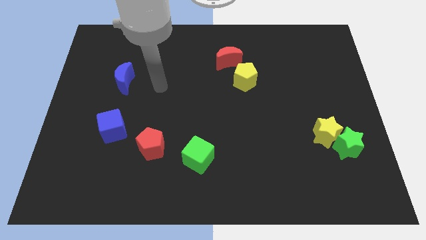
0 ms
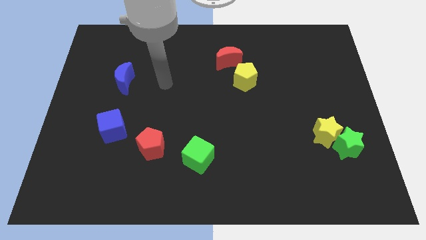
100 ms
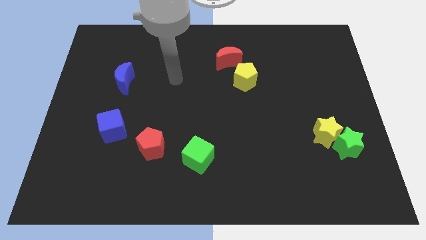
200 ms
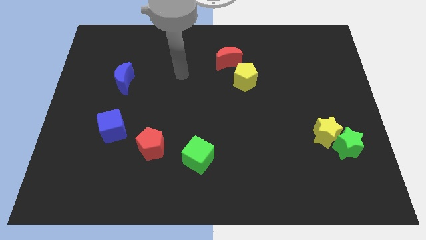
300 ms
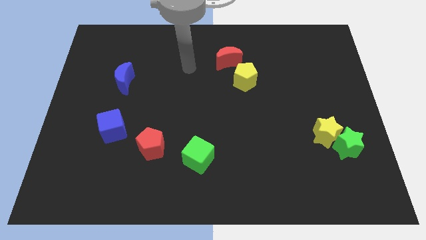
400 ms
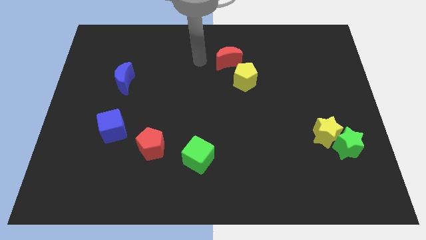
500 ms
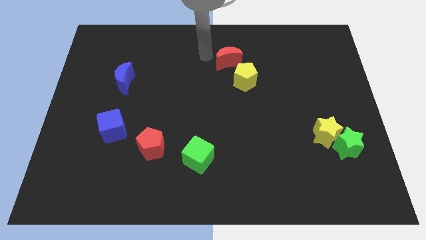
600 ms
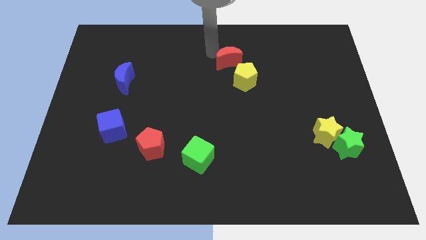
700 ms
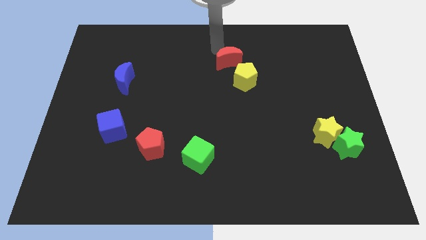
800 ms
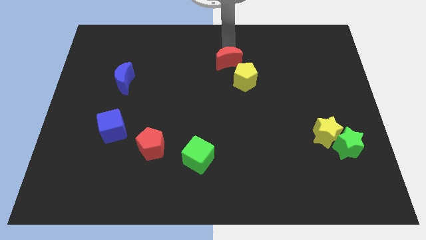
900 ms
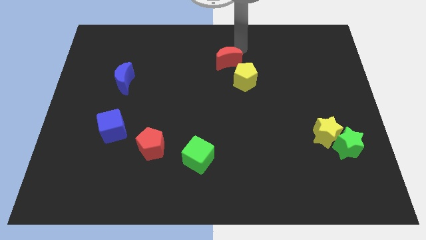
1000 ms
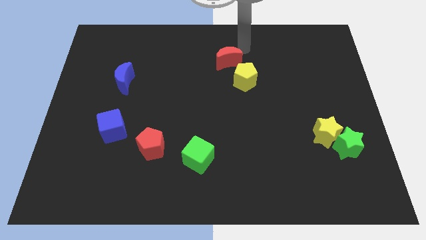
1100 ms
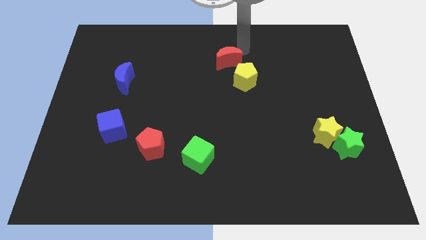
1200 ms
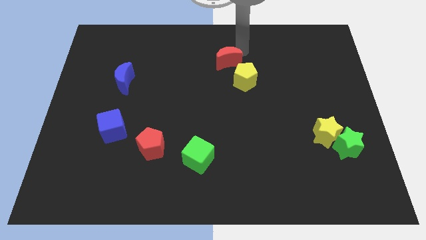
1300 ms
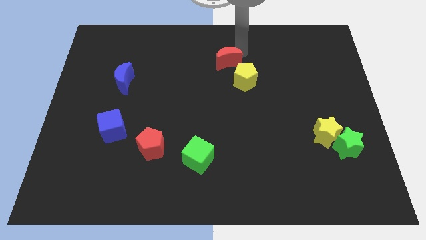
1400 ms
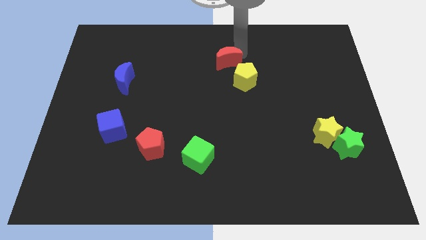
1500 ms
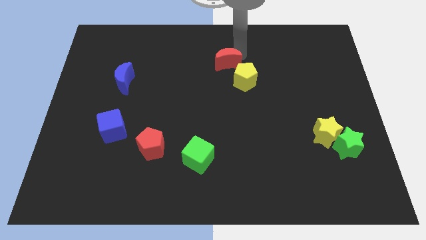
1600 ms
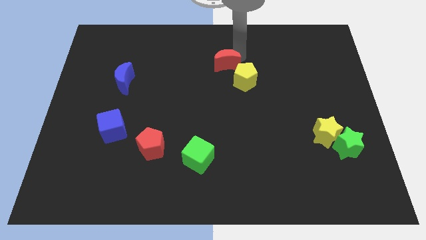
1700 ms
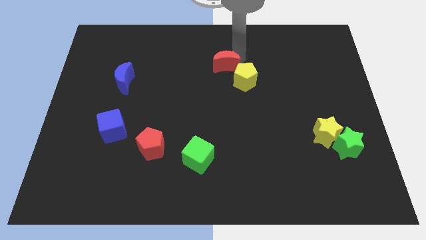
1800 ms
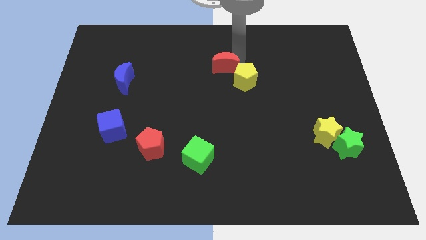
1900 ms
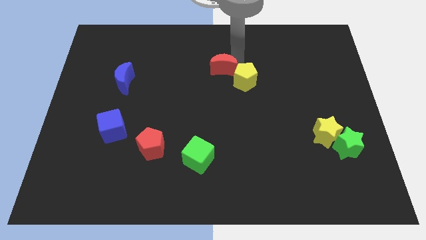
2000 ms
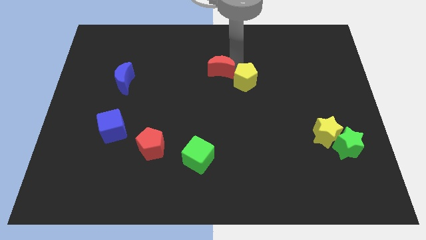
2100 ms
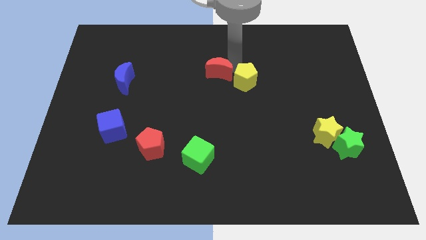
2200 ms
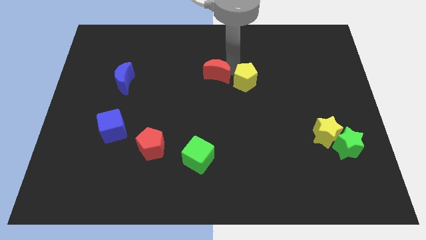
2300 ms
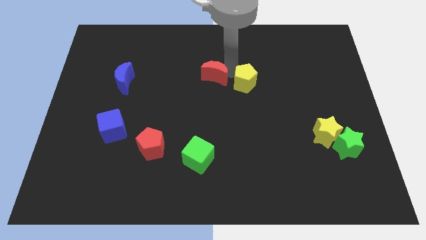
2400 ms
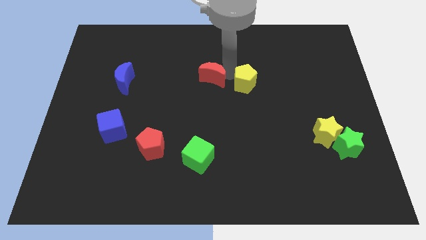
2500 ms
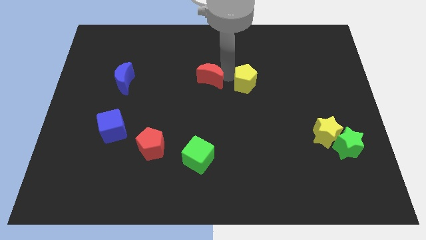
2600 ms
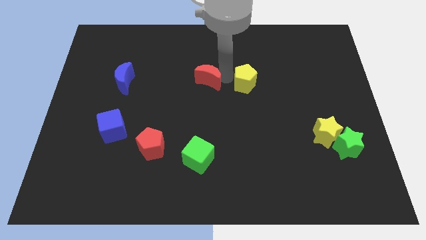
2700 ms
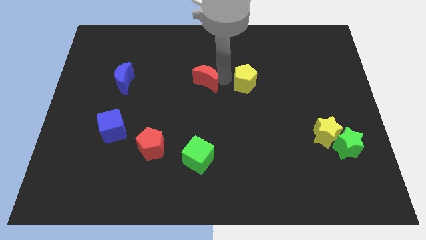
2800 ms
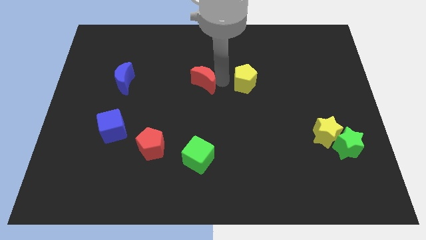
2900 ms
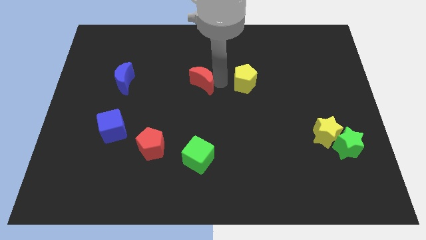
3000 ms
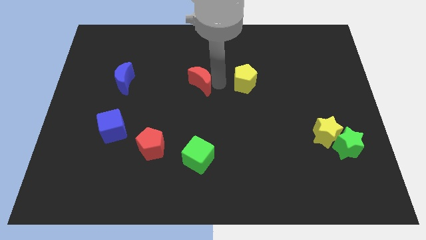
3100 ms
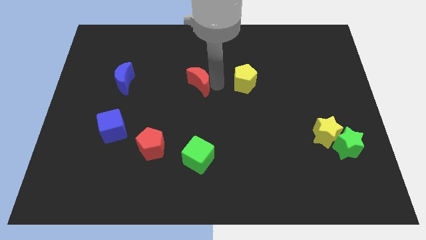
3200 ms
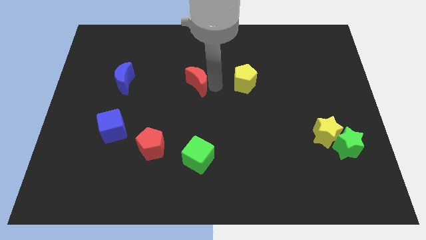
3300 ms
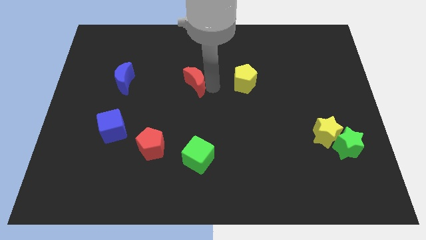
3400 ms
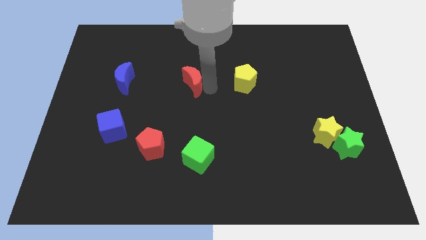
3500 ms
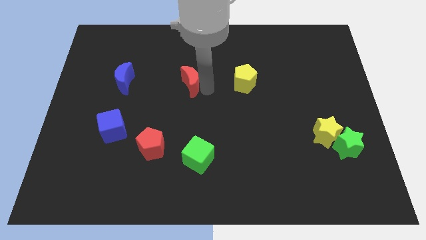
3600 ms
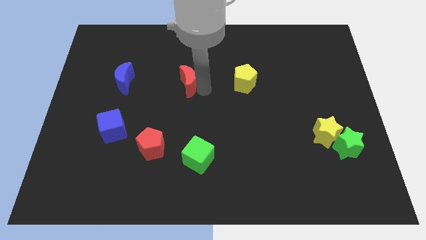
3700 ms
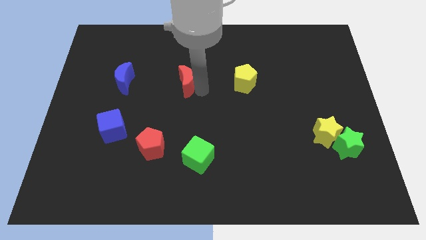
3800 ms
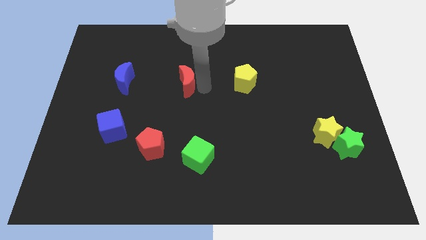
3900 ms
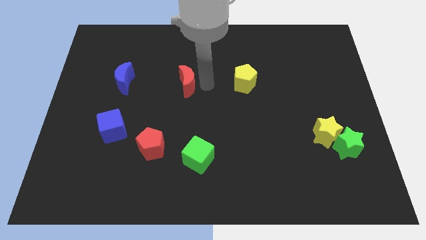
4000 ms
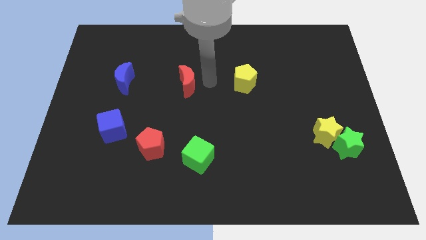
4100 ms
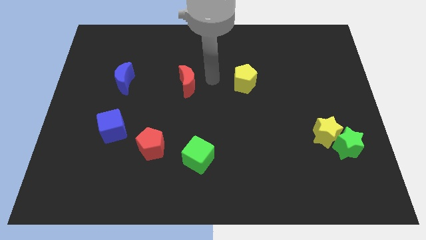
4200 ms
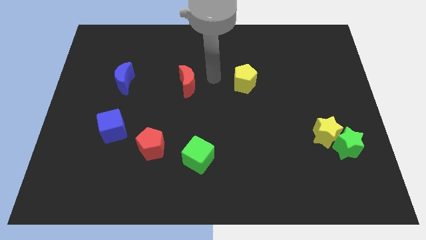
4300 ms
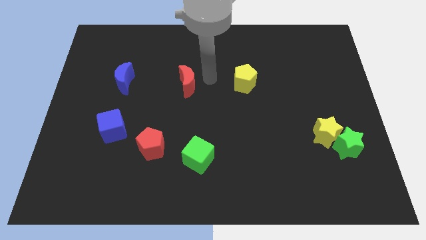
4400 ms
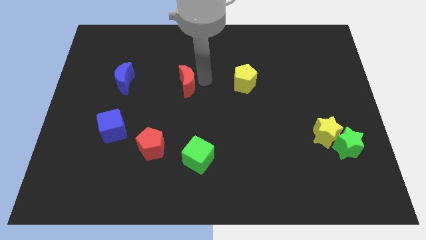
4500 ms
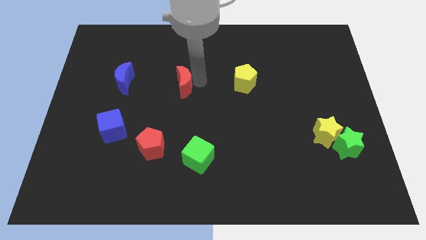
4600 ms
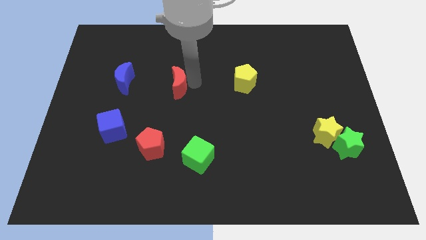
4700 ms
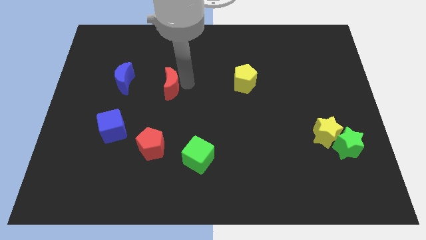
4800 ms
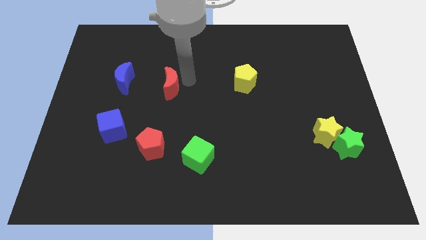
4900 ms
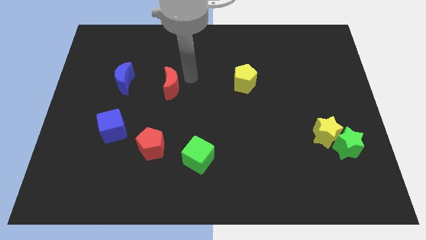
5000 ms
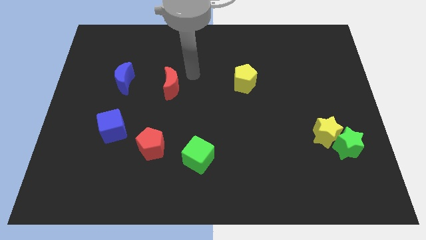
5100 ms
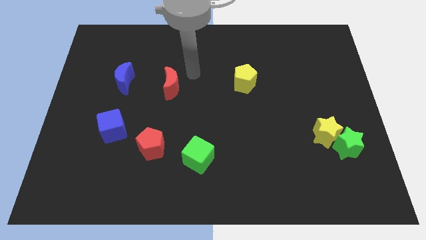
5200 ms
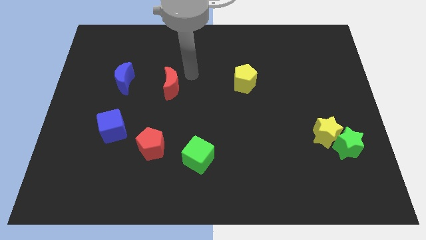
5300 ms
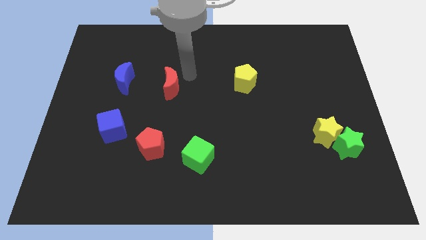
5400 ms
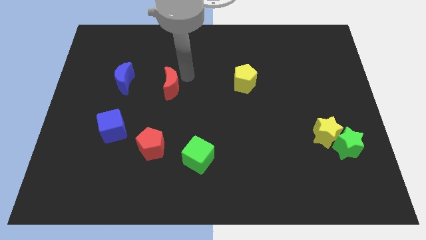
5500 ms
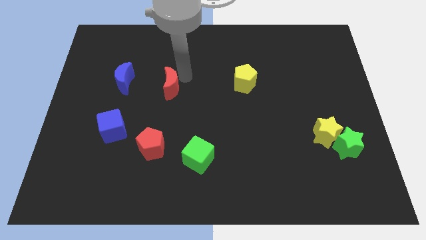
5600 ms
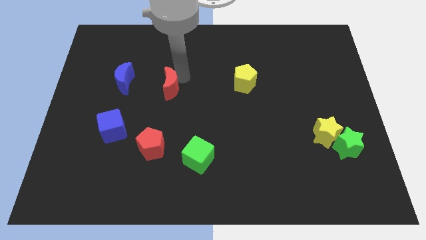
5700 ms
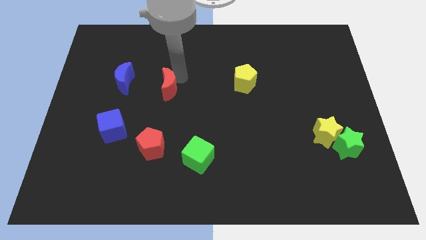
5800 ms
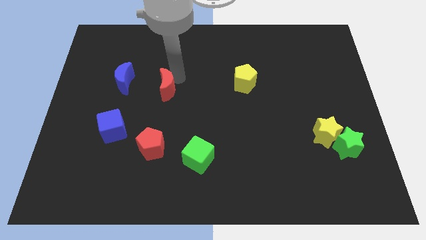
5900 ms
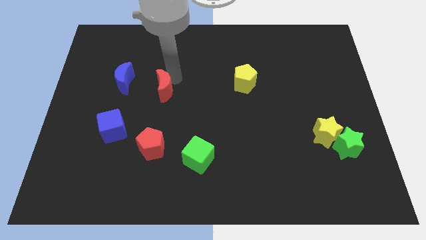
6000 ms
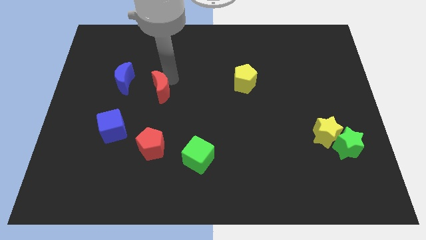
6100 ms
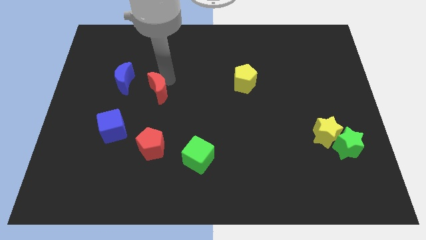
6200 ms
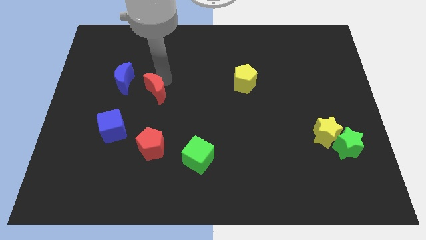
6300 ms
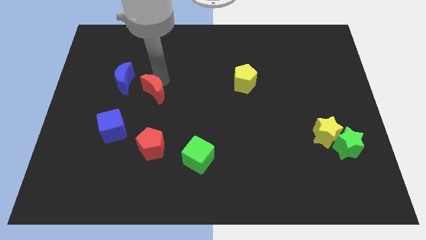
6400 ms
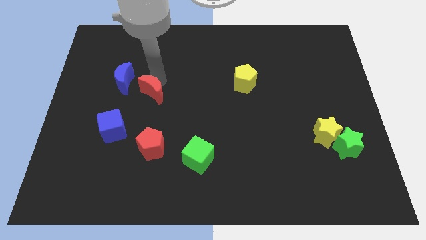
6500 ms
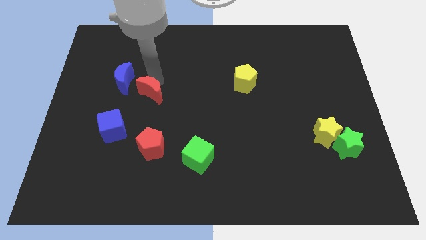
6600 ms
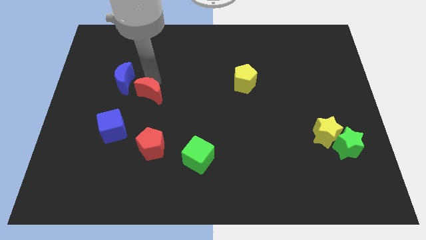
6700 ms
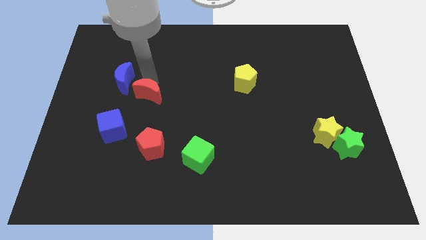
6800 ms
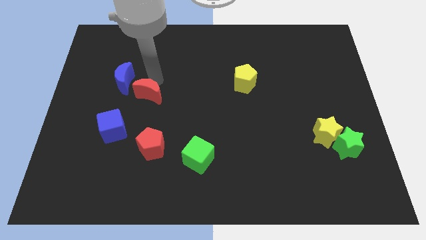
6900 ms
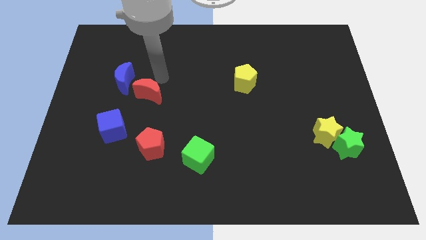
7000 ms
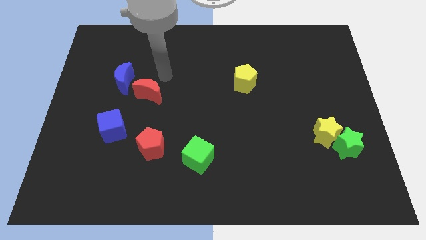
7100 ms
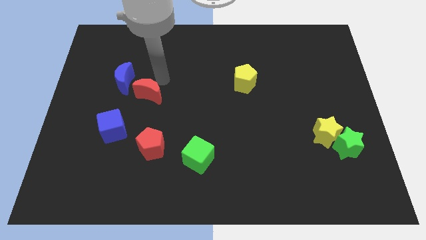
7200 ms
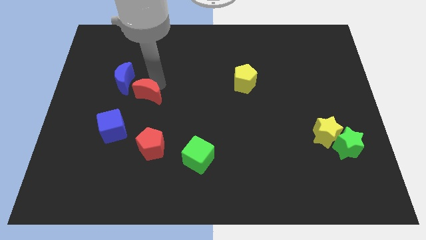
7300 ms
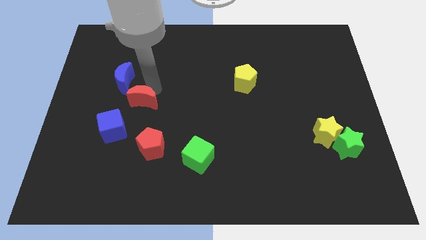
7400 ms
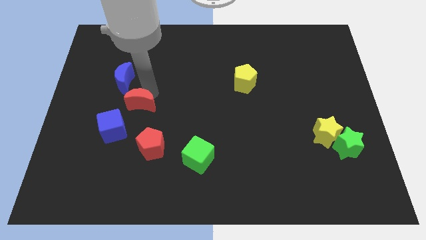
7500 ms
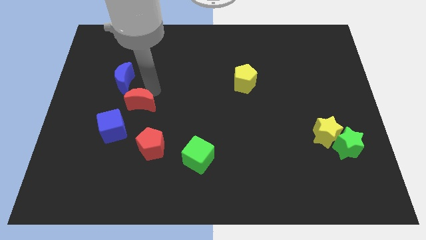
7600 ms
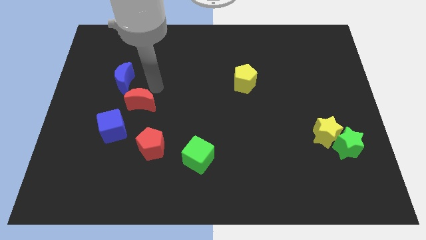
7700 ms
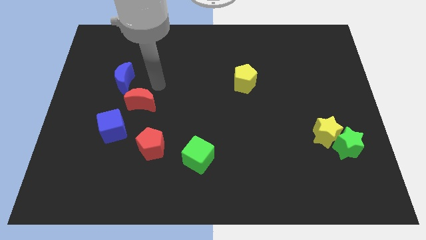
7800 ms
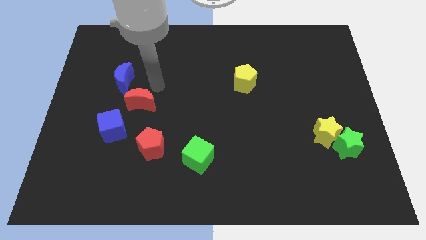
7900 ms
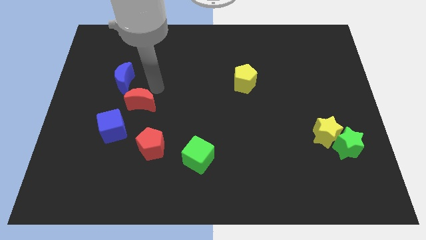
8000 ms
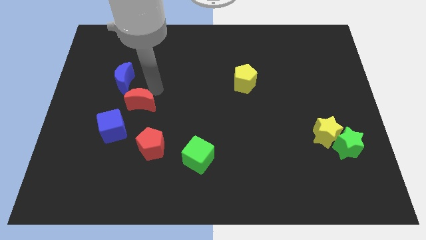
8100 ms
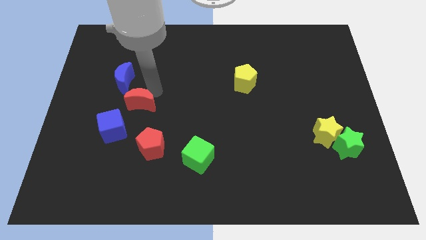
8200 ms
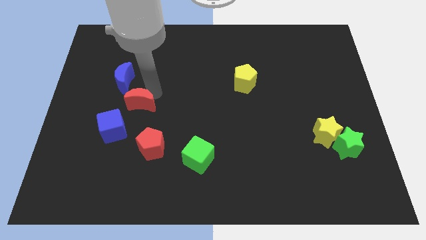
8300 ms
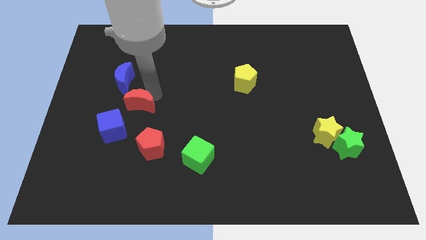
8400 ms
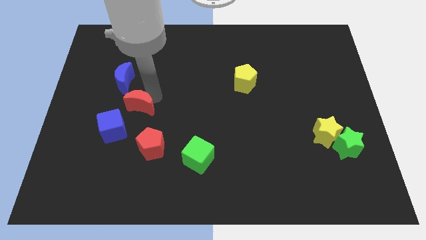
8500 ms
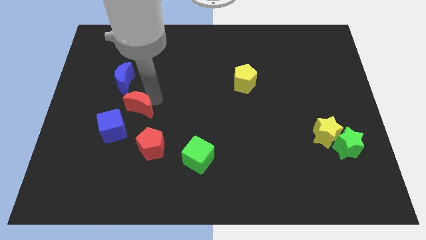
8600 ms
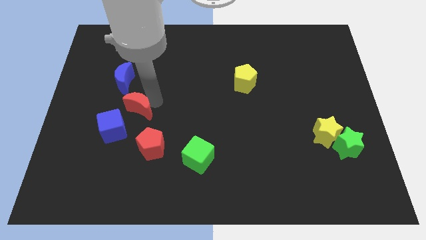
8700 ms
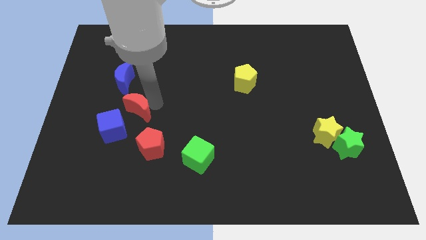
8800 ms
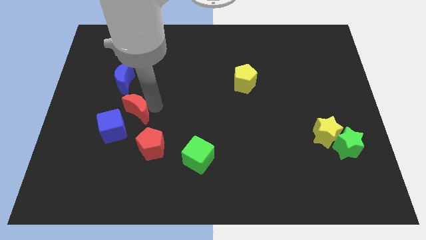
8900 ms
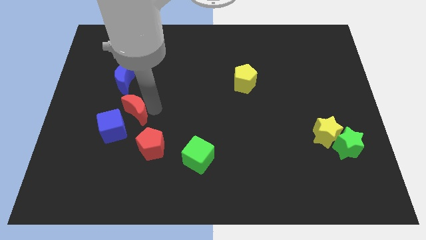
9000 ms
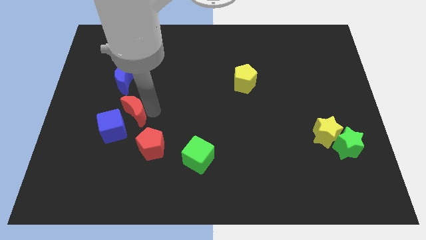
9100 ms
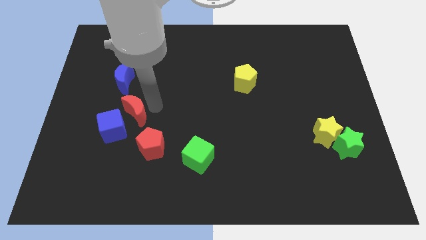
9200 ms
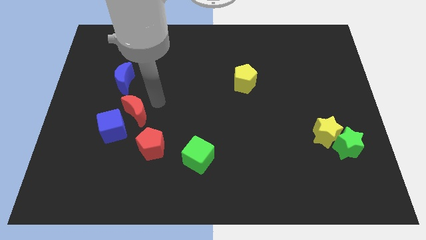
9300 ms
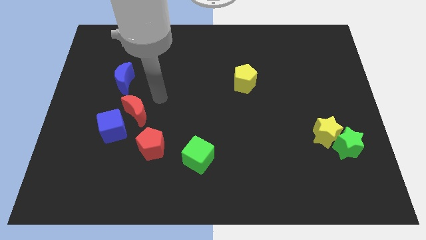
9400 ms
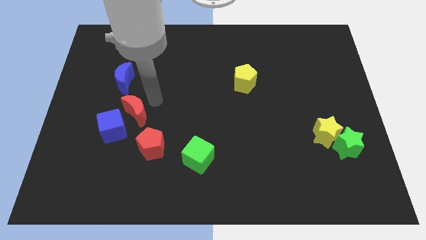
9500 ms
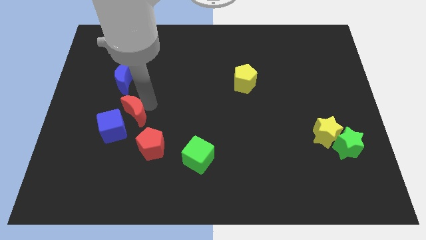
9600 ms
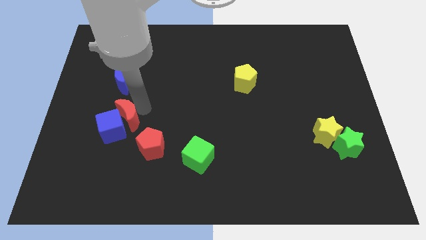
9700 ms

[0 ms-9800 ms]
move the red moon close to the blue cube
